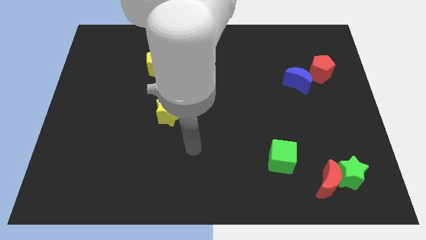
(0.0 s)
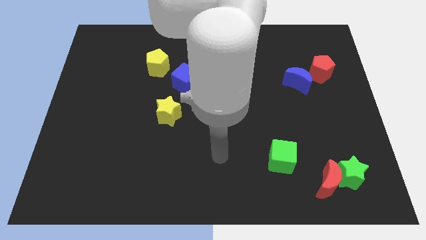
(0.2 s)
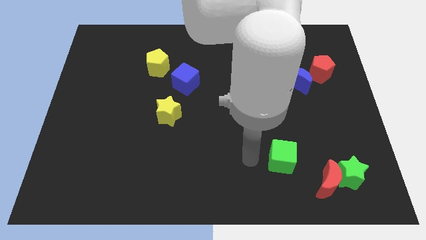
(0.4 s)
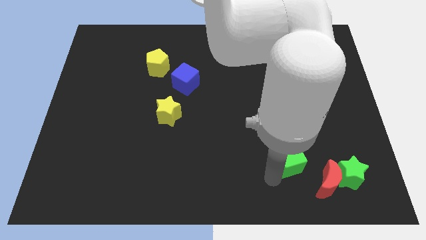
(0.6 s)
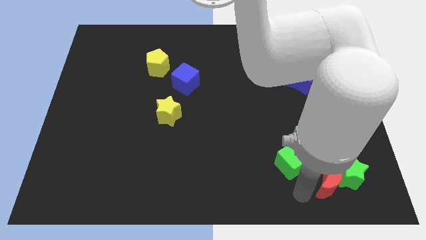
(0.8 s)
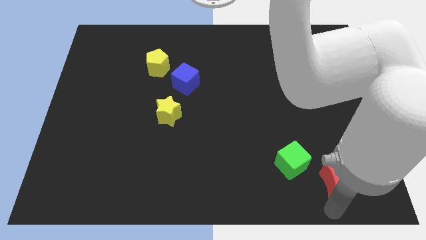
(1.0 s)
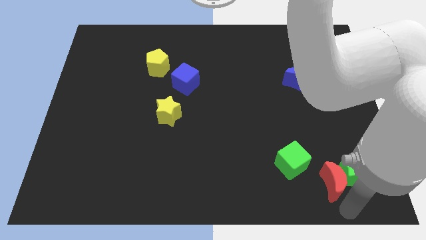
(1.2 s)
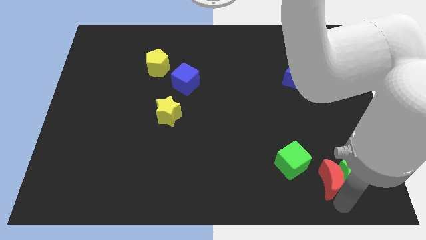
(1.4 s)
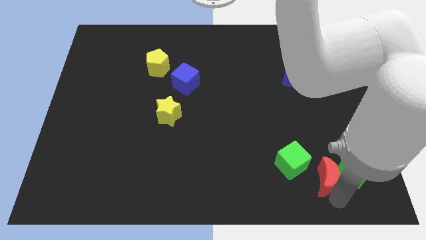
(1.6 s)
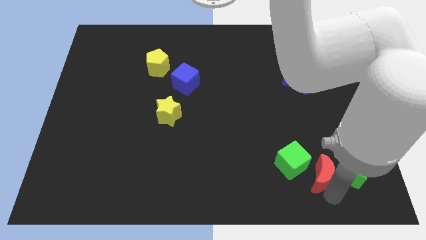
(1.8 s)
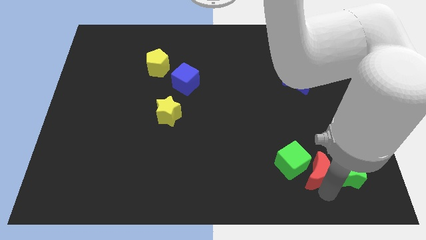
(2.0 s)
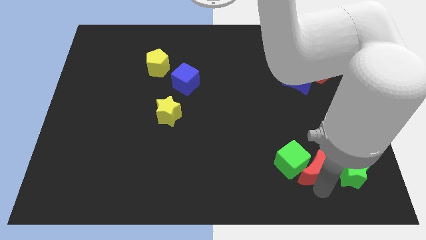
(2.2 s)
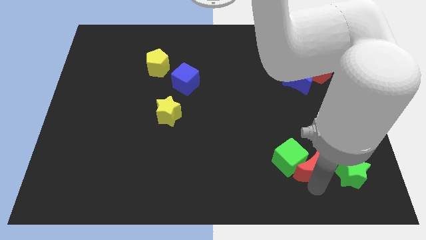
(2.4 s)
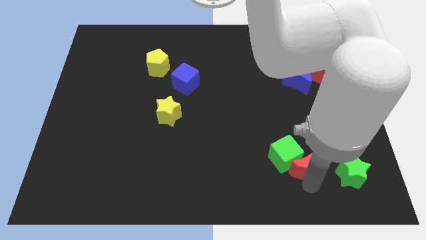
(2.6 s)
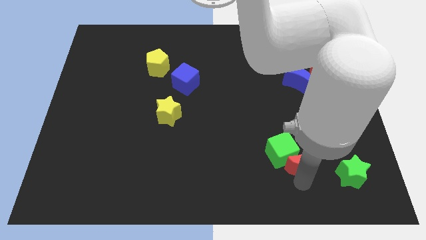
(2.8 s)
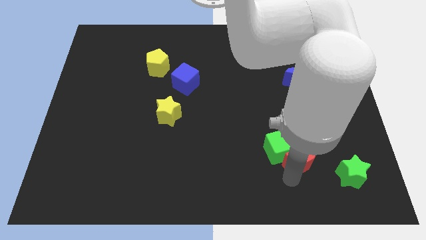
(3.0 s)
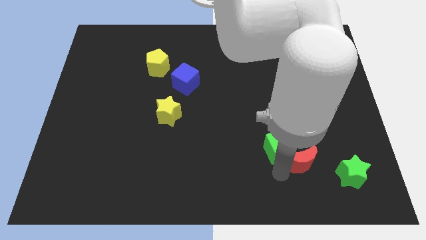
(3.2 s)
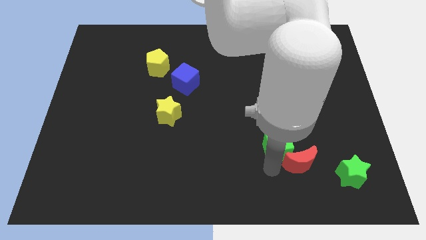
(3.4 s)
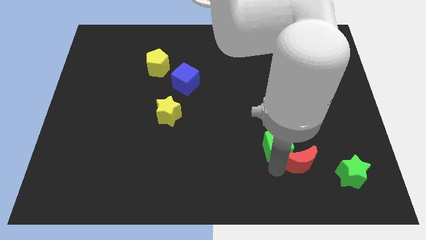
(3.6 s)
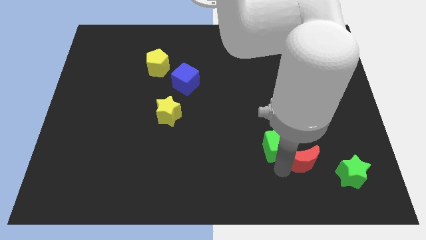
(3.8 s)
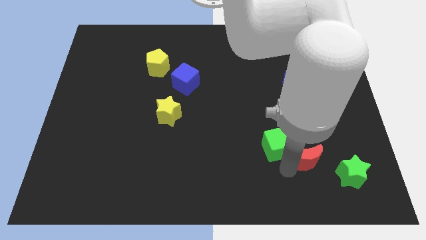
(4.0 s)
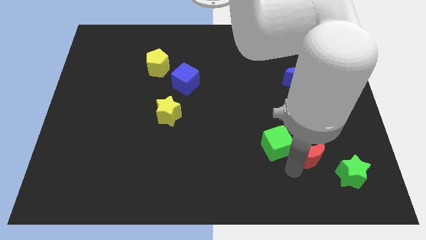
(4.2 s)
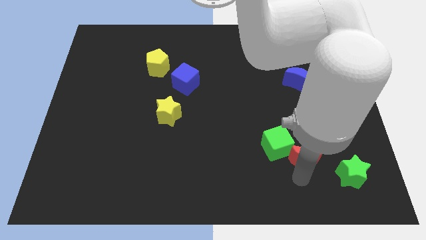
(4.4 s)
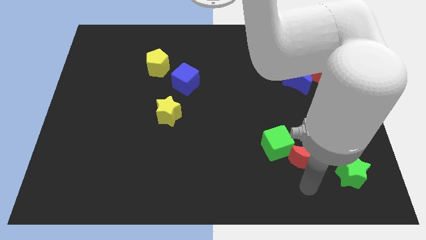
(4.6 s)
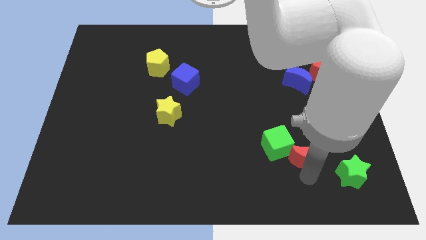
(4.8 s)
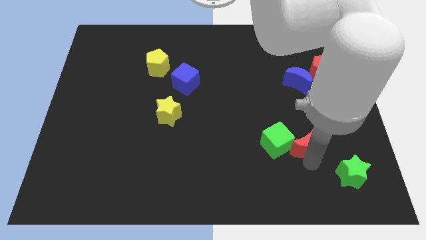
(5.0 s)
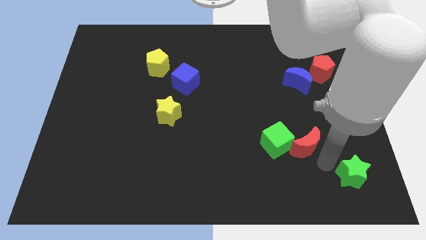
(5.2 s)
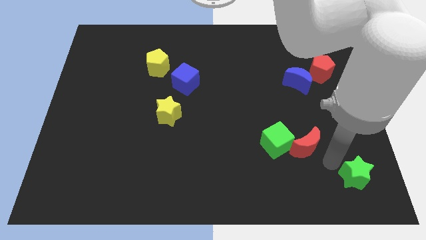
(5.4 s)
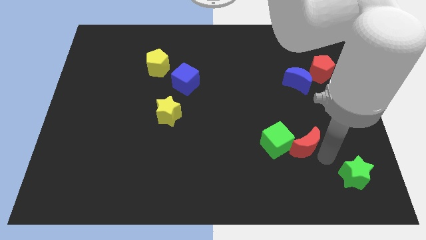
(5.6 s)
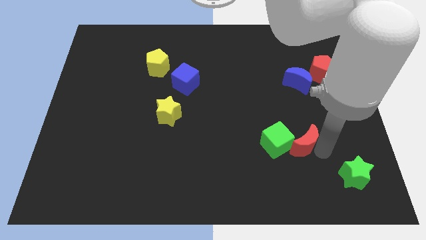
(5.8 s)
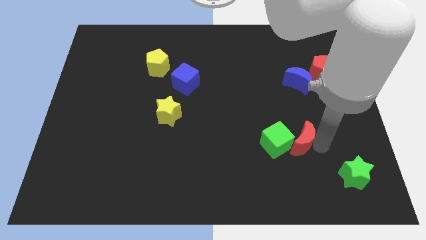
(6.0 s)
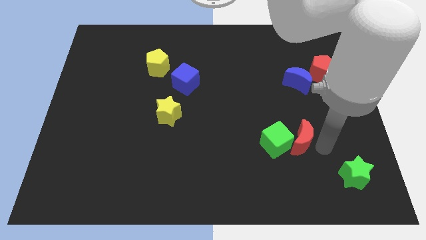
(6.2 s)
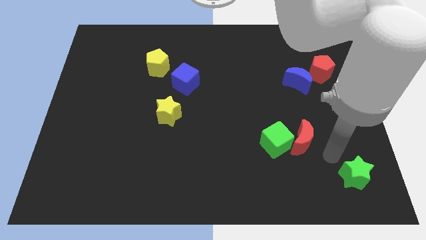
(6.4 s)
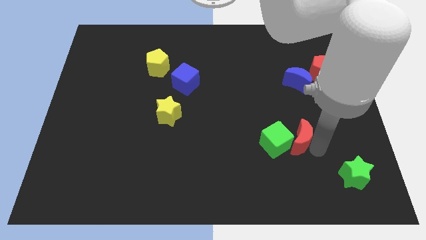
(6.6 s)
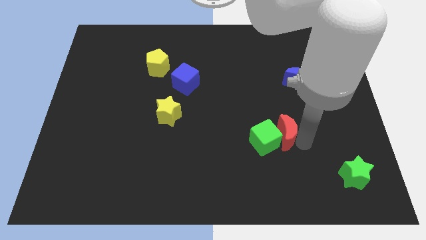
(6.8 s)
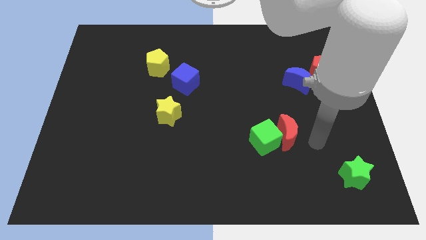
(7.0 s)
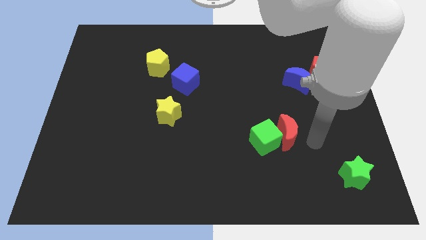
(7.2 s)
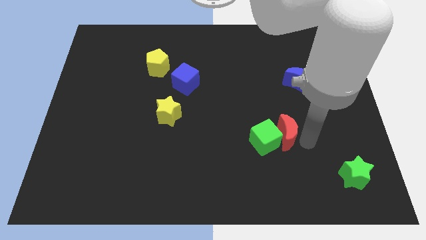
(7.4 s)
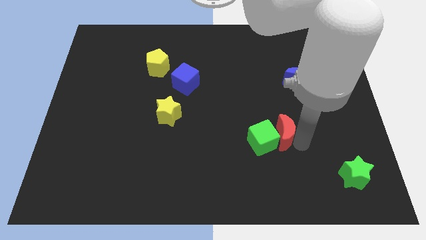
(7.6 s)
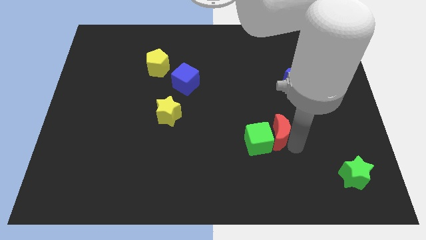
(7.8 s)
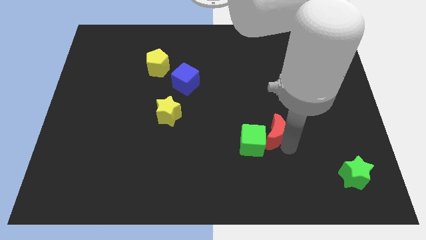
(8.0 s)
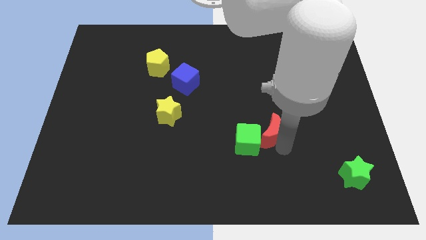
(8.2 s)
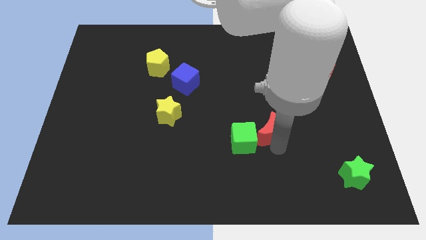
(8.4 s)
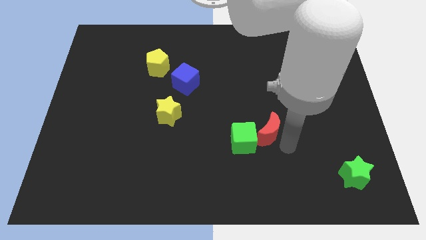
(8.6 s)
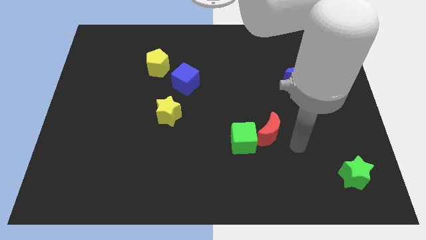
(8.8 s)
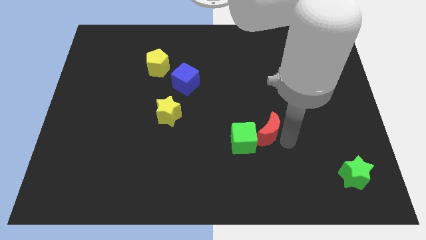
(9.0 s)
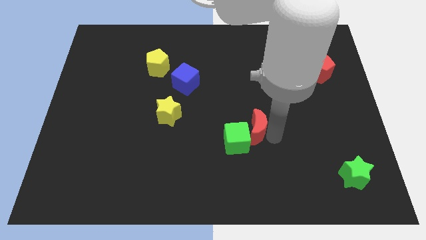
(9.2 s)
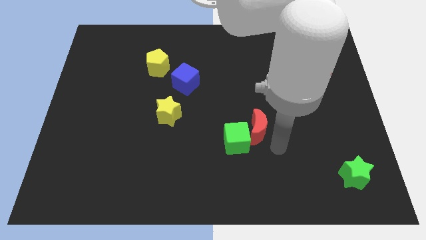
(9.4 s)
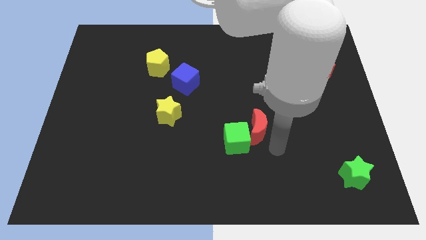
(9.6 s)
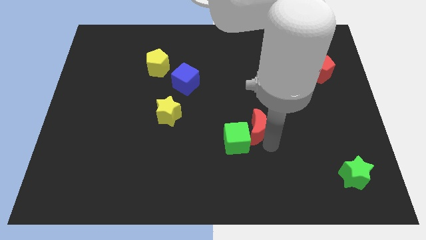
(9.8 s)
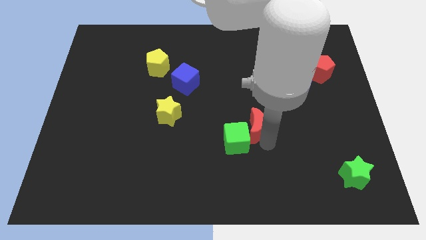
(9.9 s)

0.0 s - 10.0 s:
put the red moon to the center of the board

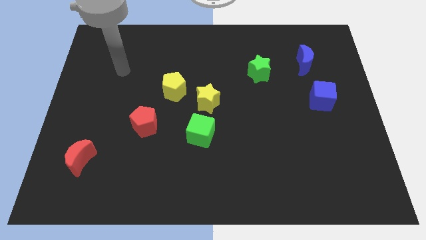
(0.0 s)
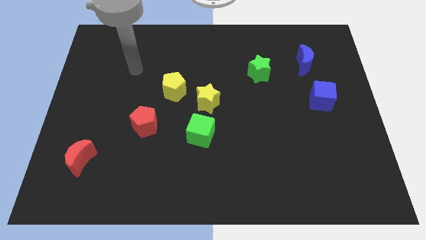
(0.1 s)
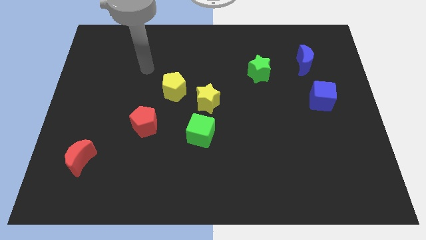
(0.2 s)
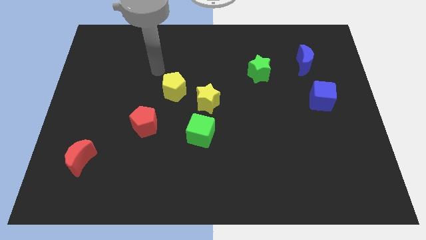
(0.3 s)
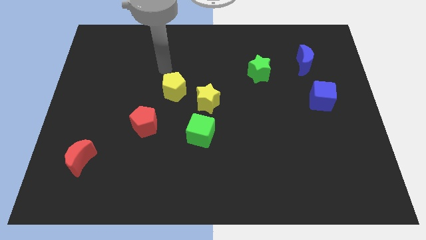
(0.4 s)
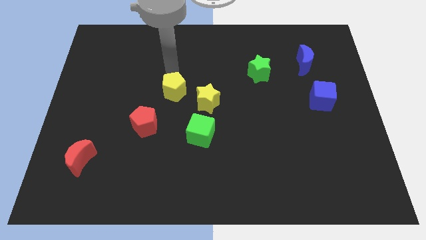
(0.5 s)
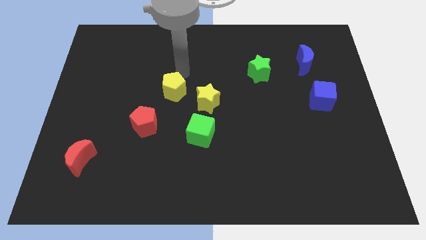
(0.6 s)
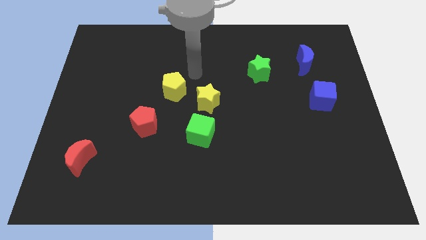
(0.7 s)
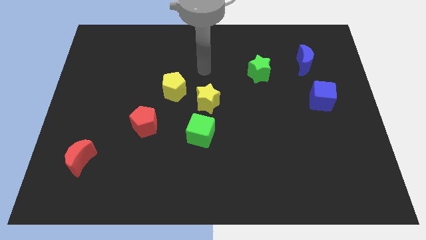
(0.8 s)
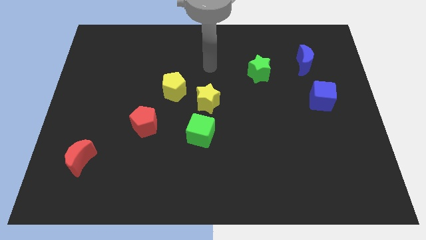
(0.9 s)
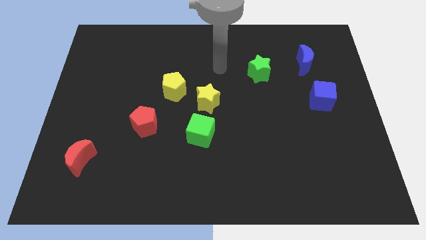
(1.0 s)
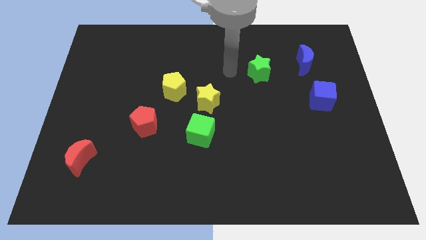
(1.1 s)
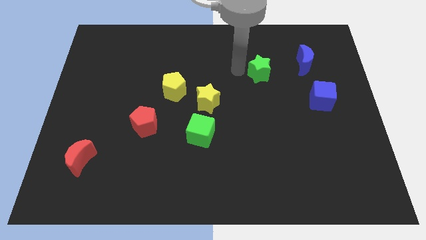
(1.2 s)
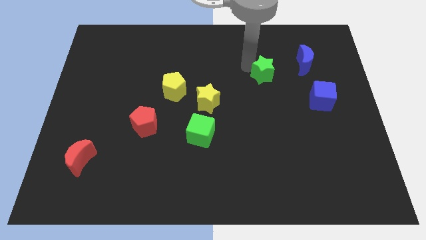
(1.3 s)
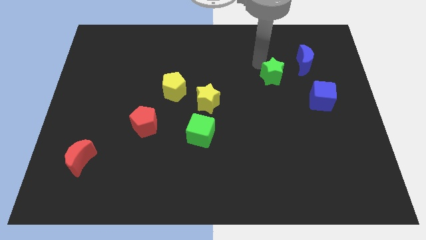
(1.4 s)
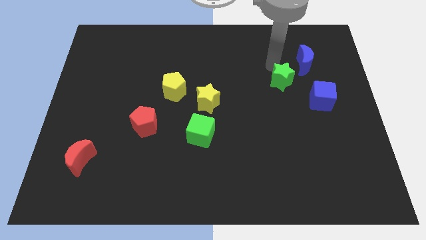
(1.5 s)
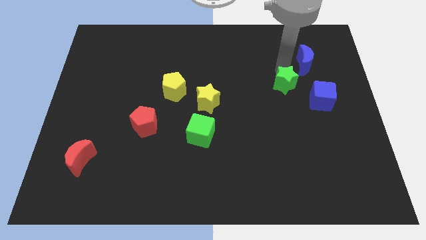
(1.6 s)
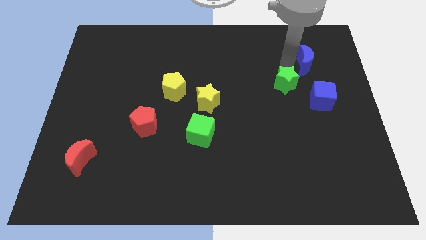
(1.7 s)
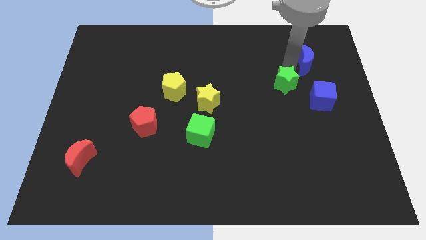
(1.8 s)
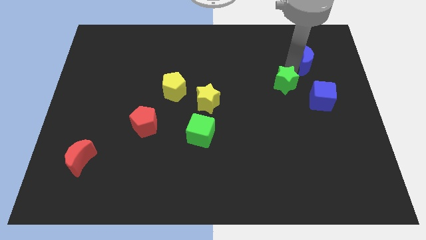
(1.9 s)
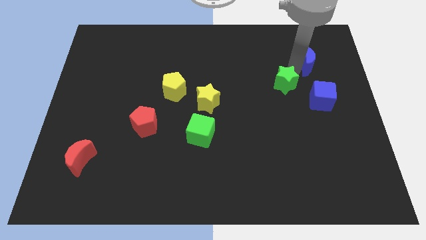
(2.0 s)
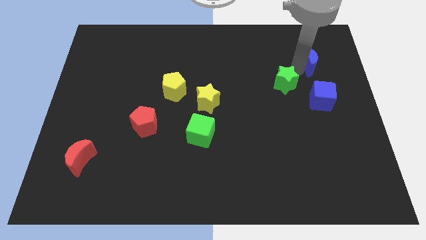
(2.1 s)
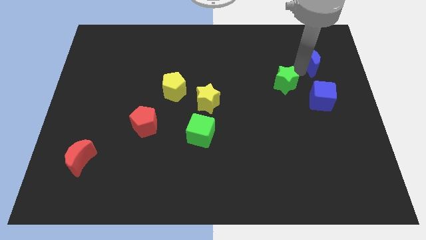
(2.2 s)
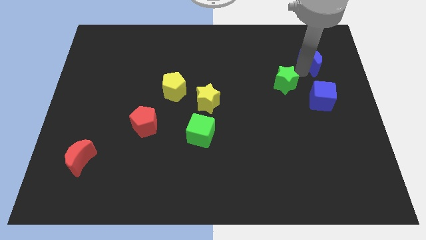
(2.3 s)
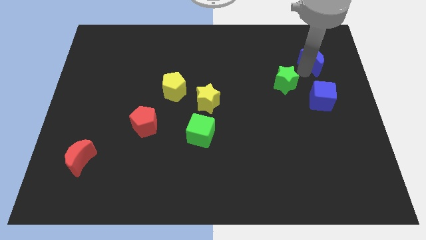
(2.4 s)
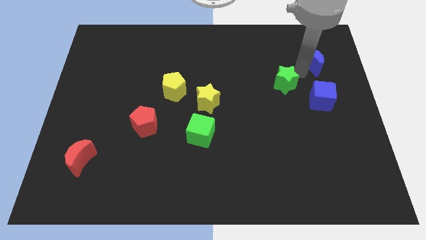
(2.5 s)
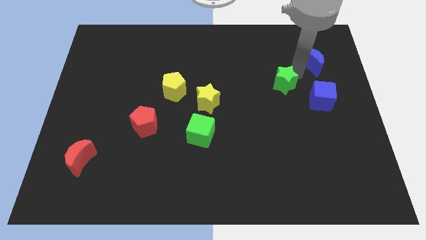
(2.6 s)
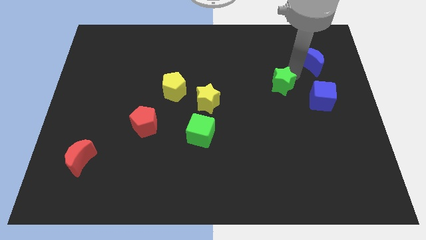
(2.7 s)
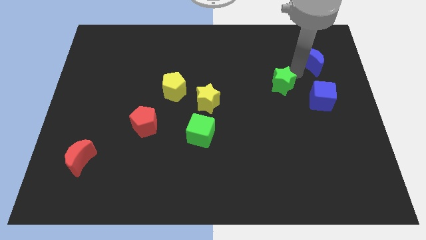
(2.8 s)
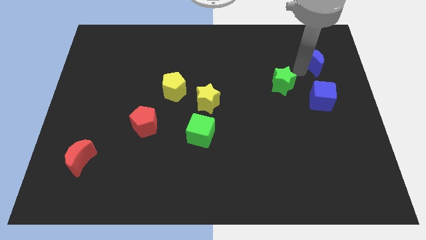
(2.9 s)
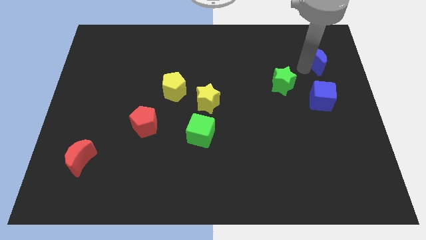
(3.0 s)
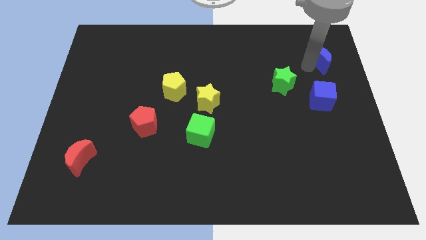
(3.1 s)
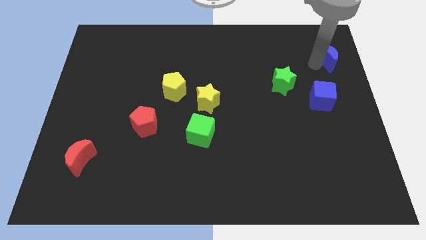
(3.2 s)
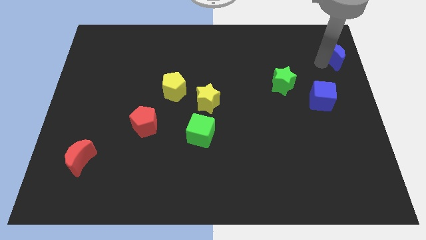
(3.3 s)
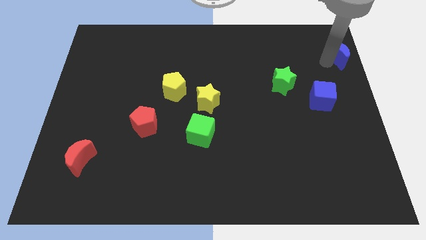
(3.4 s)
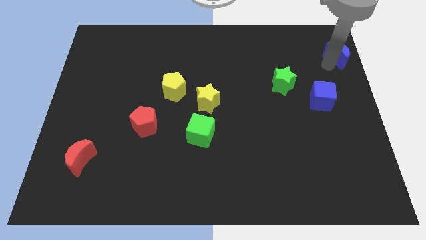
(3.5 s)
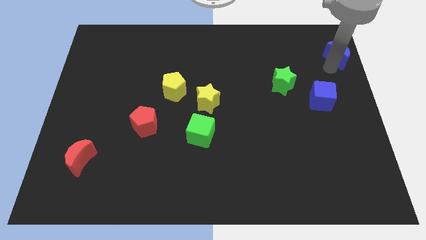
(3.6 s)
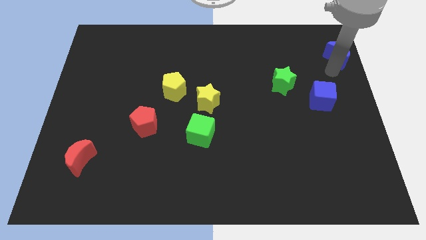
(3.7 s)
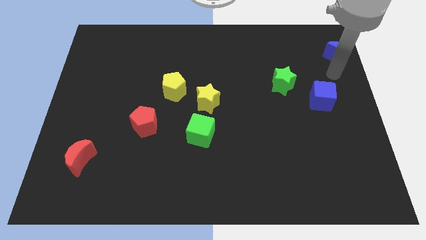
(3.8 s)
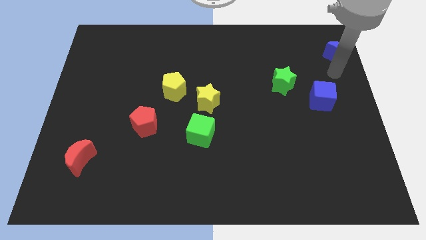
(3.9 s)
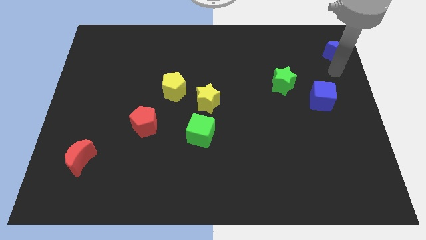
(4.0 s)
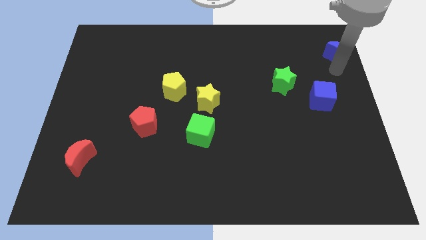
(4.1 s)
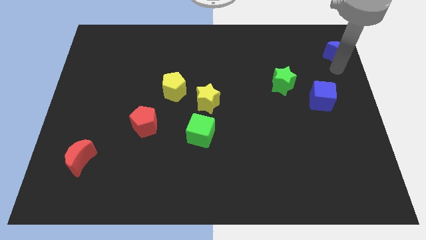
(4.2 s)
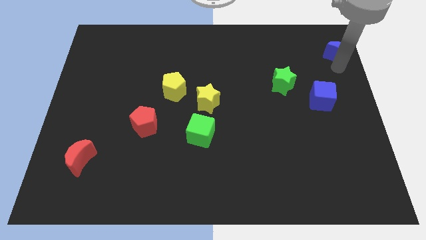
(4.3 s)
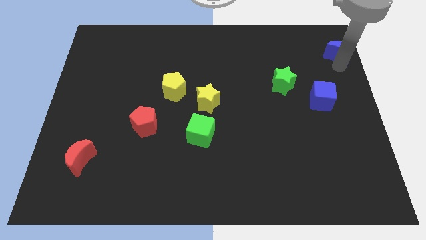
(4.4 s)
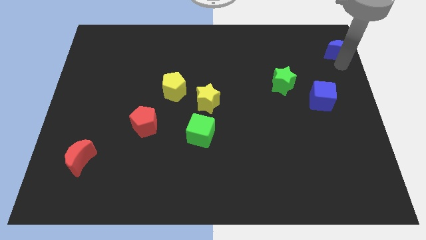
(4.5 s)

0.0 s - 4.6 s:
put the blue moon to the top right of the board
